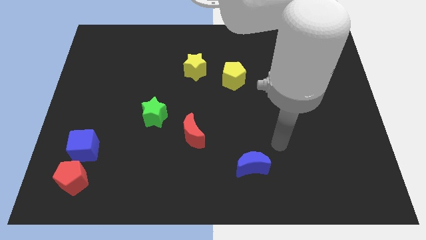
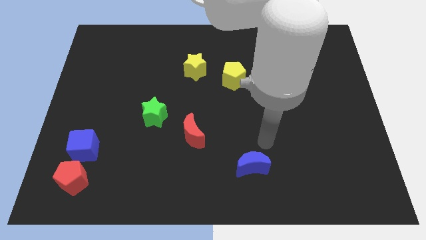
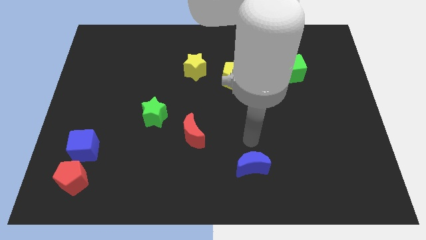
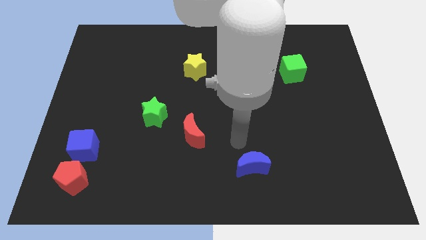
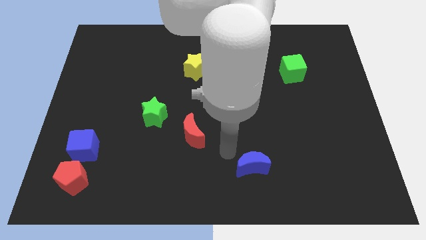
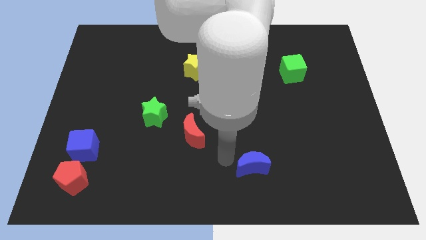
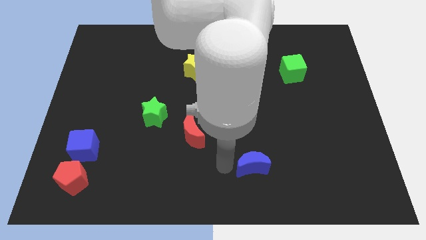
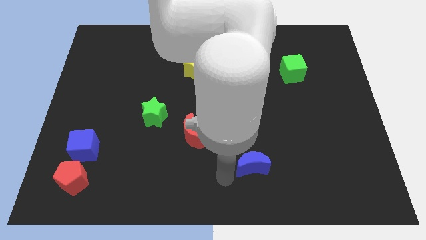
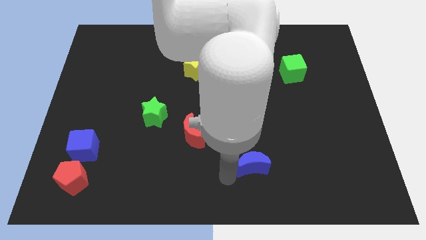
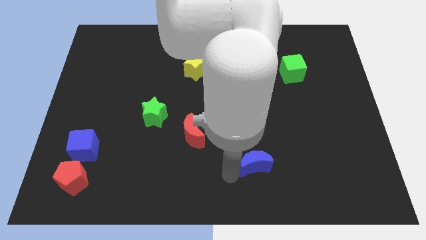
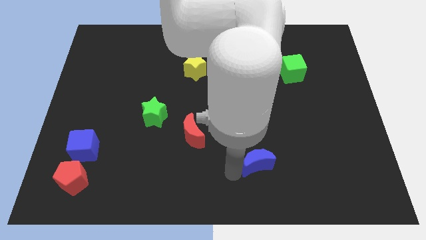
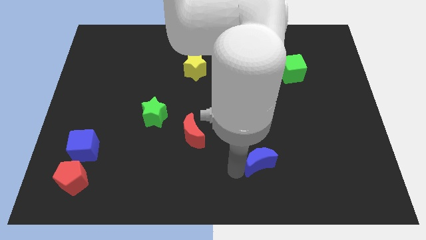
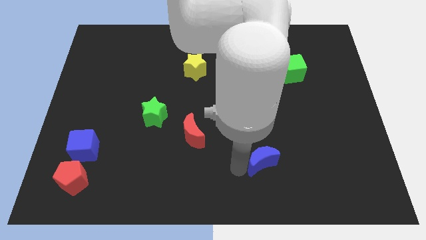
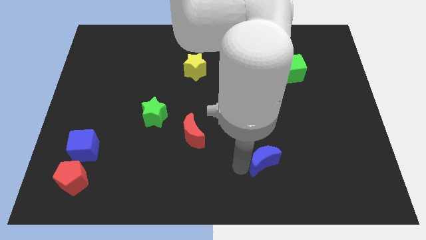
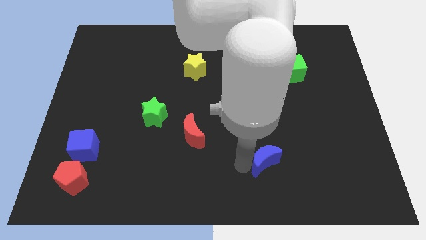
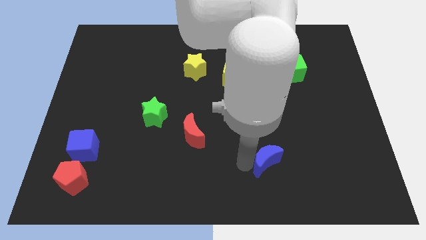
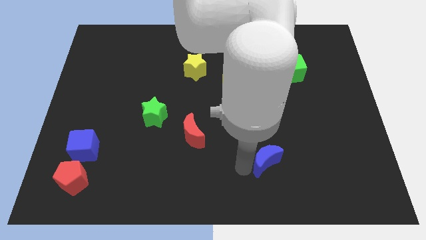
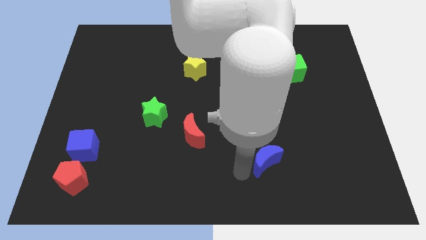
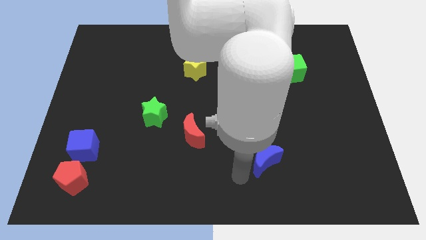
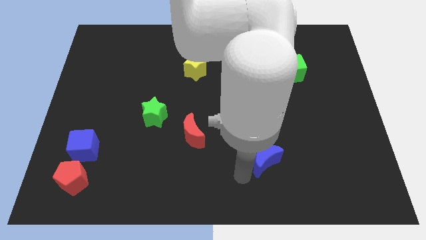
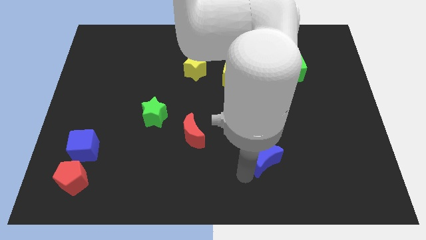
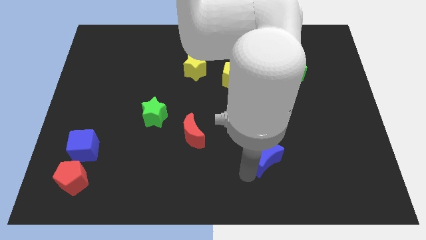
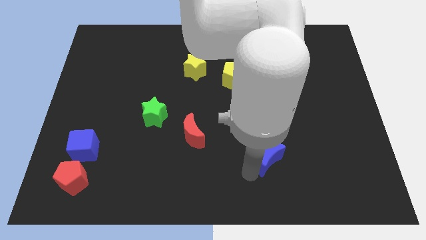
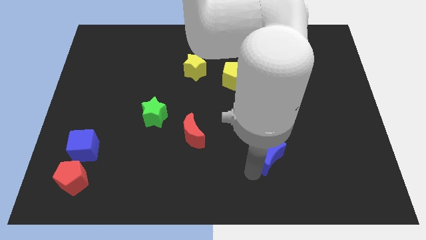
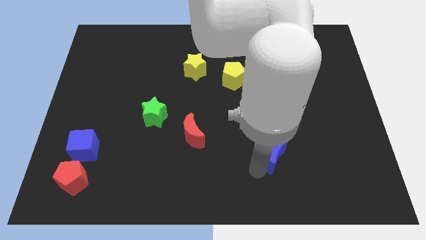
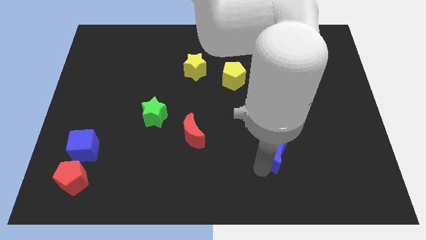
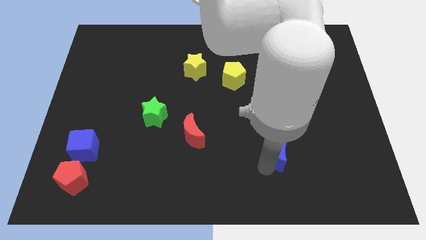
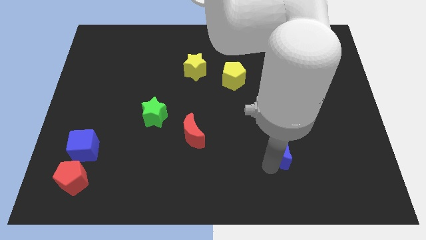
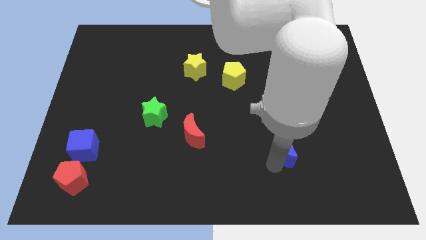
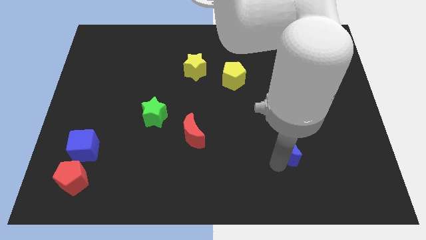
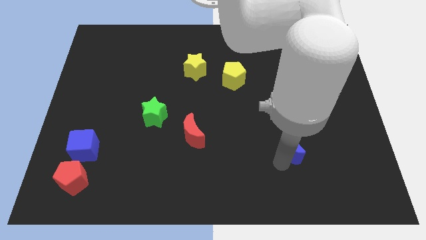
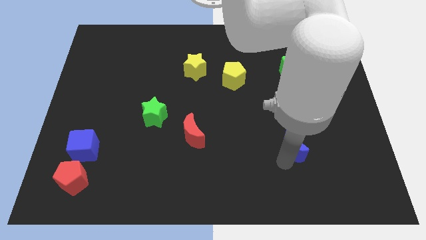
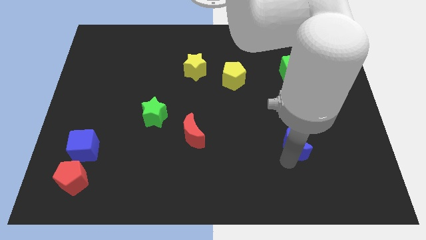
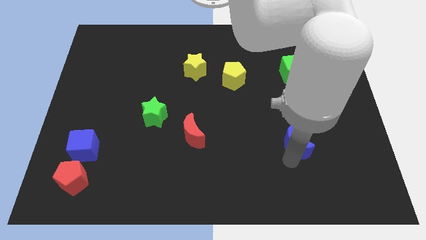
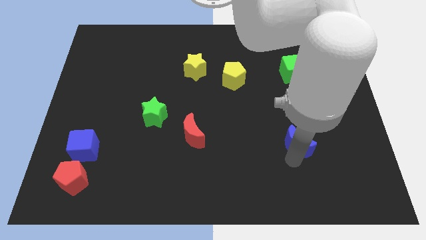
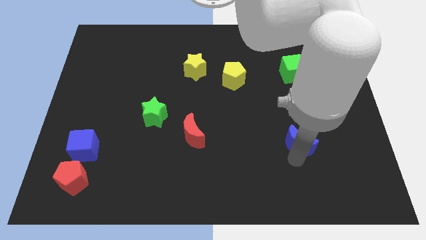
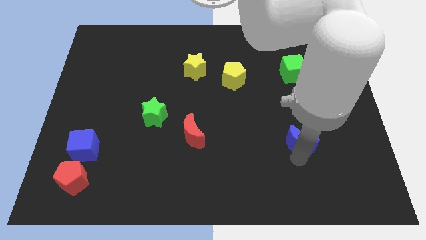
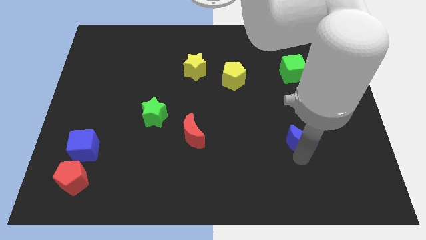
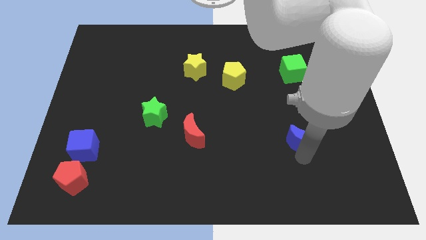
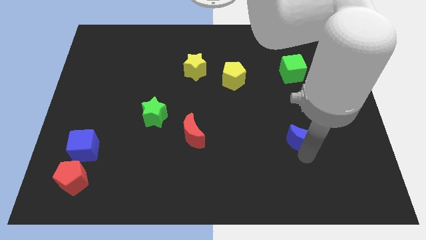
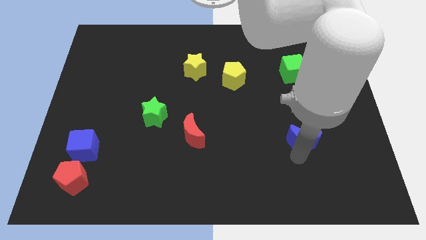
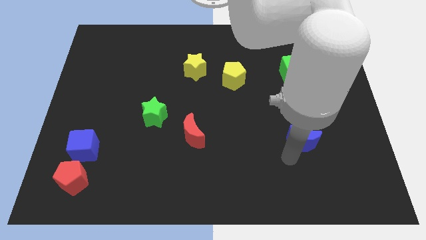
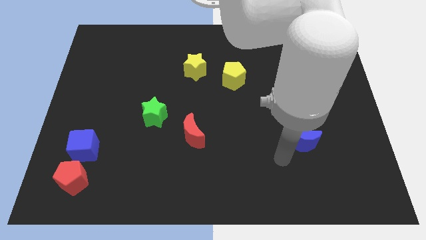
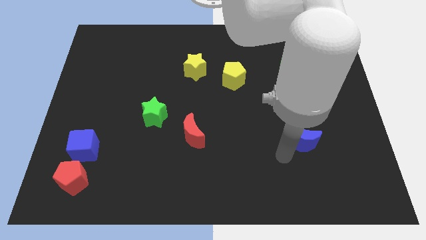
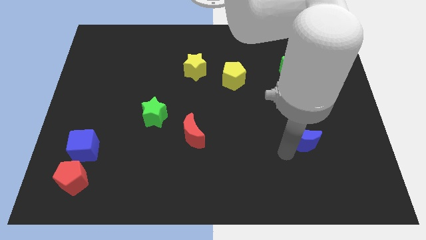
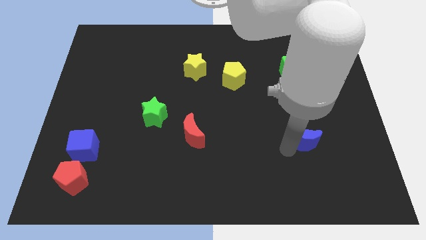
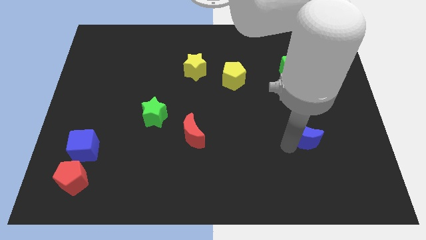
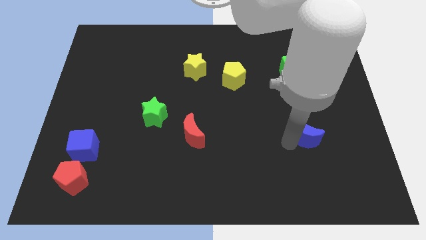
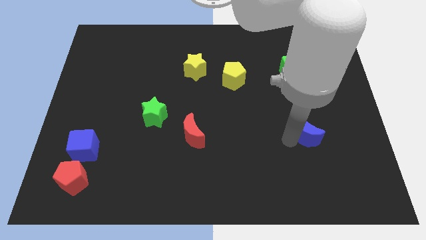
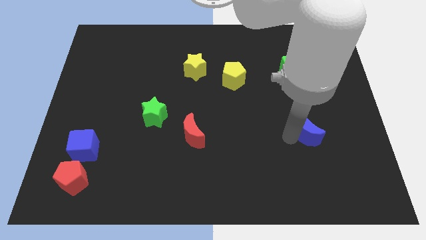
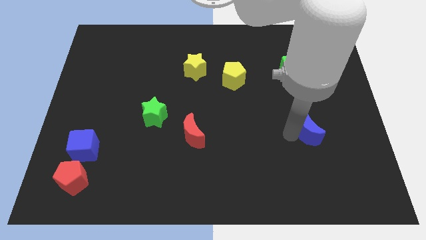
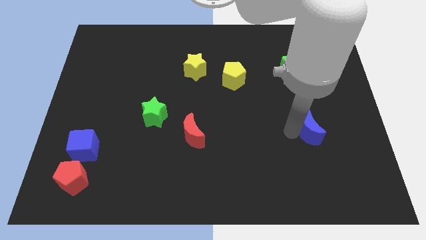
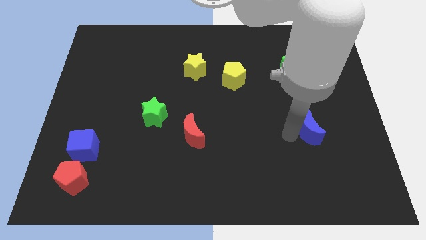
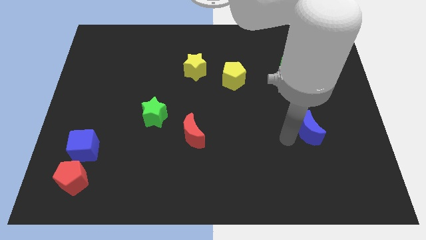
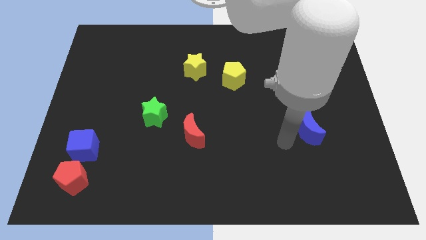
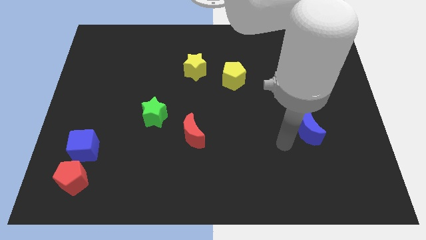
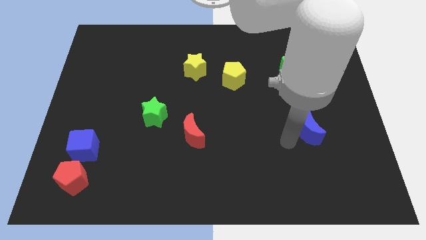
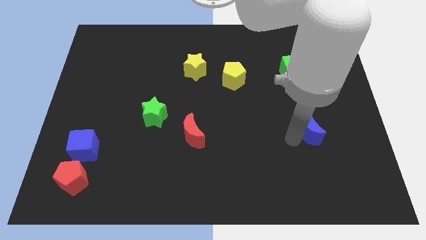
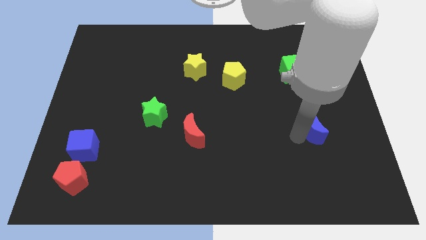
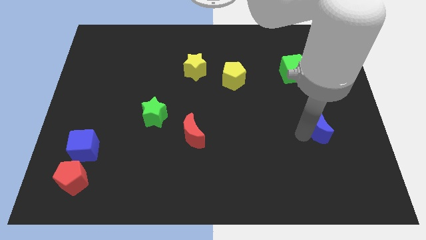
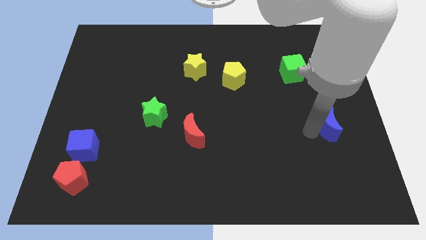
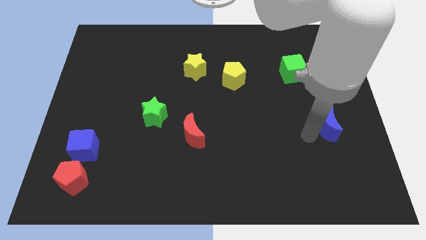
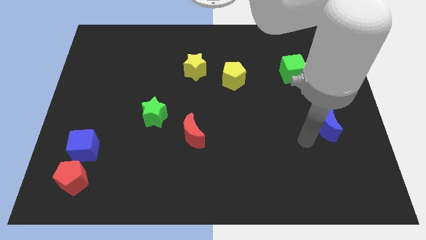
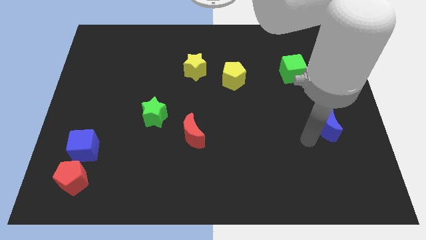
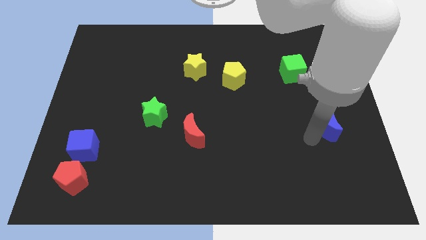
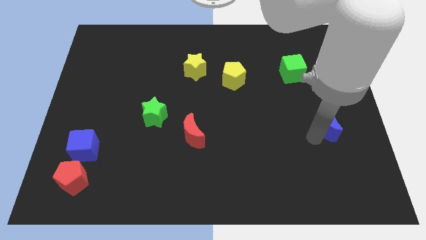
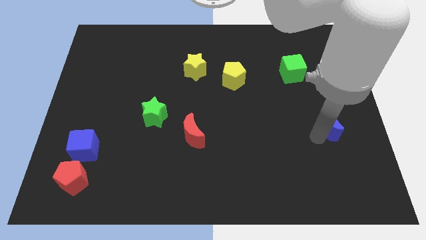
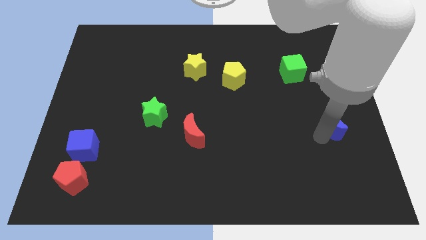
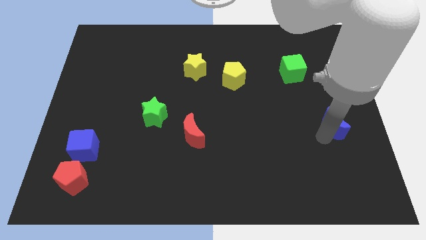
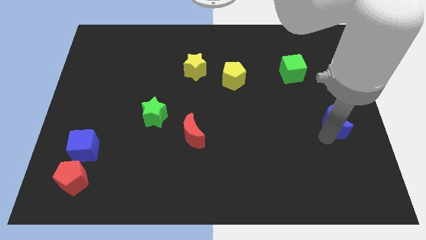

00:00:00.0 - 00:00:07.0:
put the blue moon to the right side
